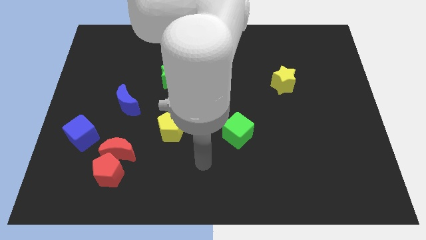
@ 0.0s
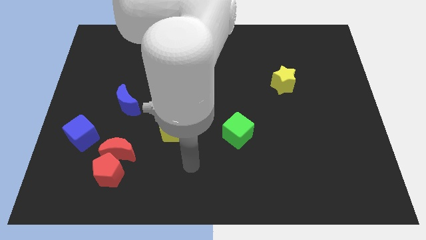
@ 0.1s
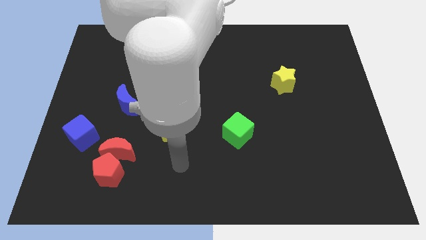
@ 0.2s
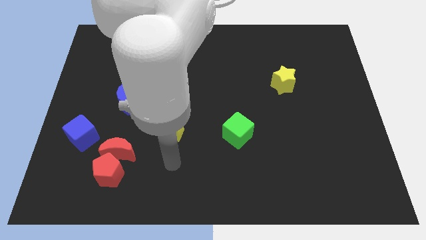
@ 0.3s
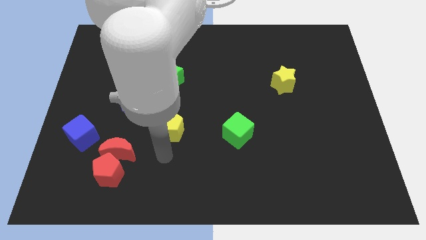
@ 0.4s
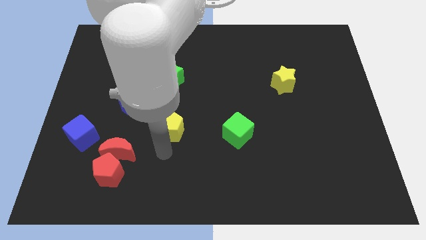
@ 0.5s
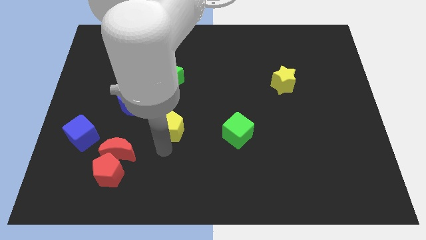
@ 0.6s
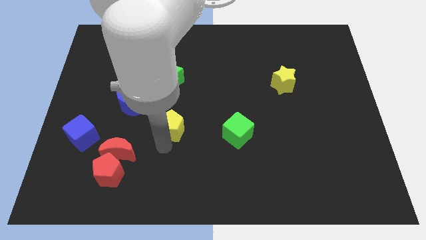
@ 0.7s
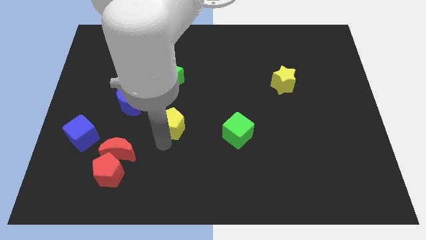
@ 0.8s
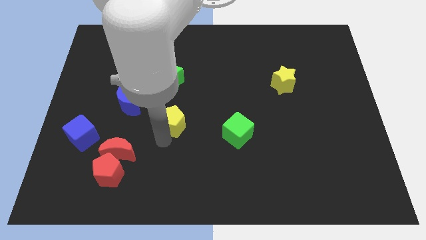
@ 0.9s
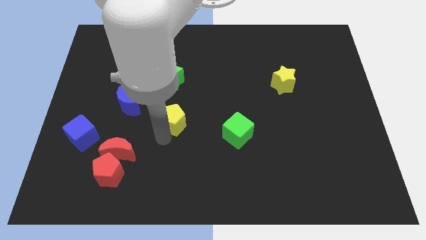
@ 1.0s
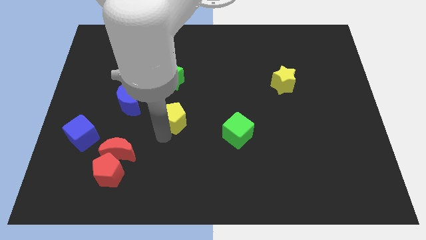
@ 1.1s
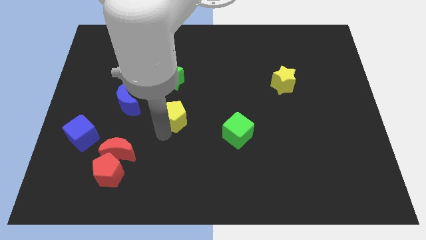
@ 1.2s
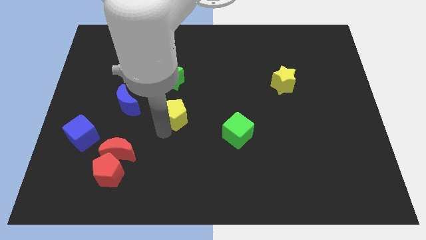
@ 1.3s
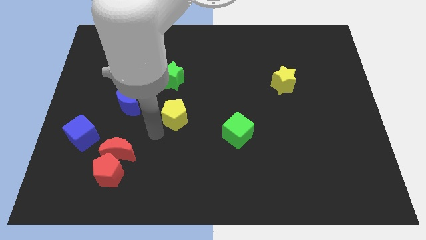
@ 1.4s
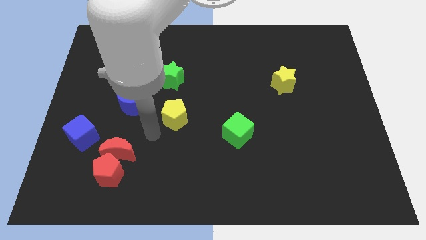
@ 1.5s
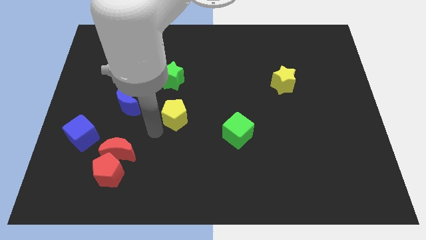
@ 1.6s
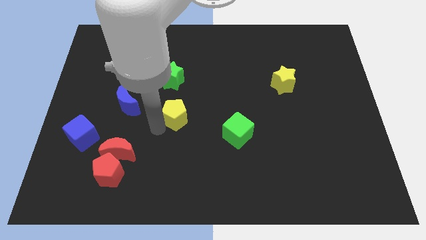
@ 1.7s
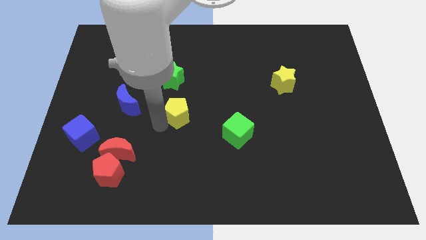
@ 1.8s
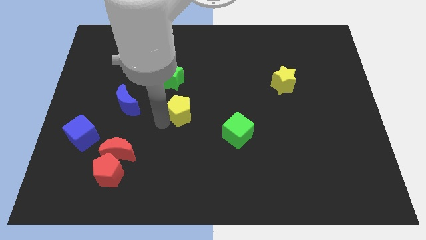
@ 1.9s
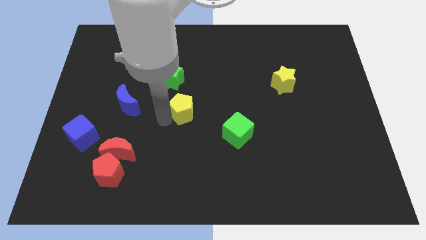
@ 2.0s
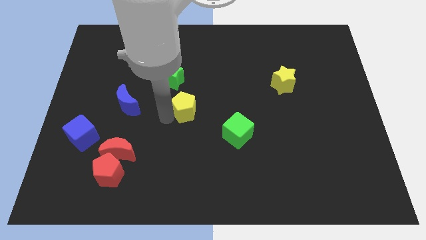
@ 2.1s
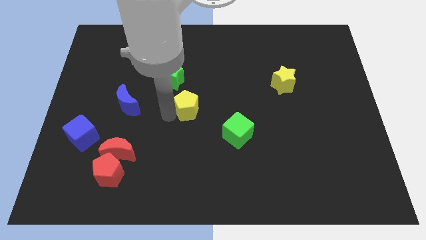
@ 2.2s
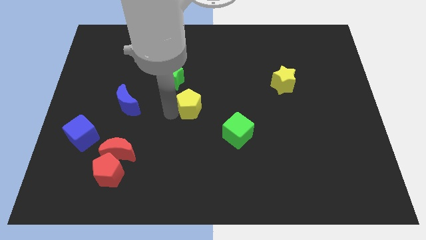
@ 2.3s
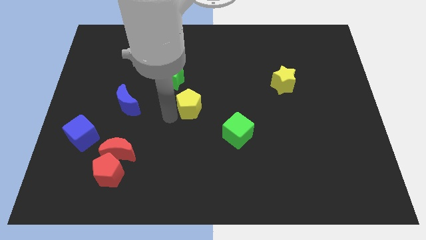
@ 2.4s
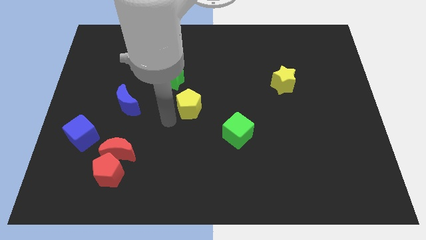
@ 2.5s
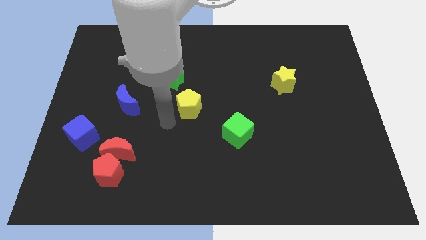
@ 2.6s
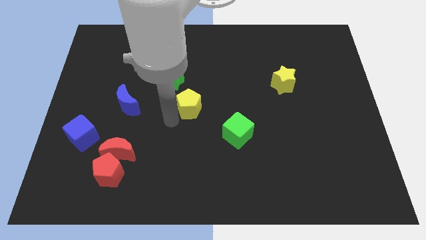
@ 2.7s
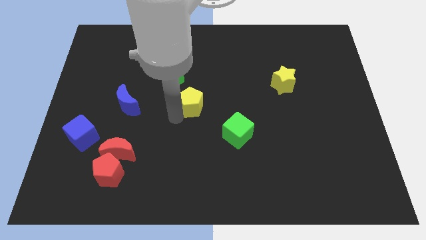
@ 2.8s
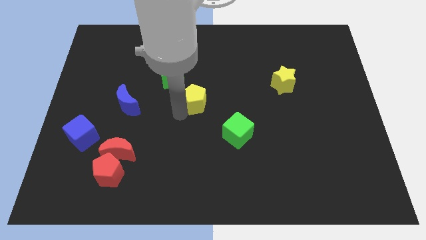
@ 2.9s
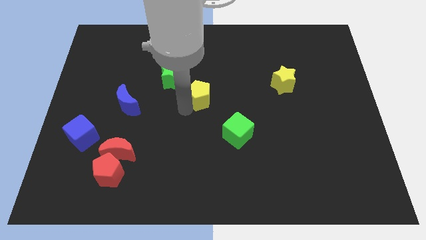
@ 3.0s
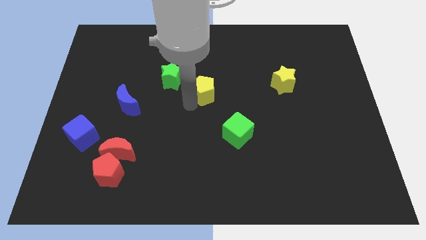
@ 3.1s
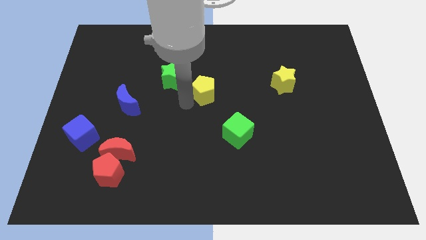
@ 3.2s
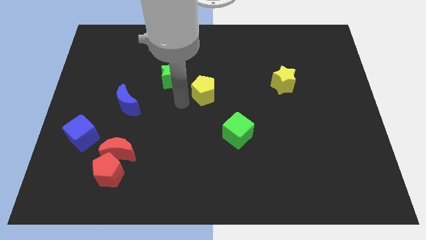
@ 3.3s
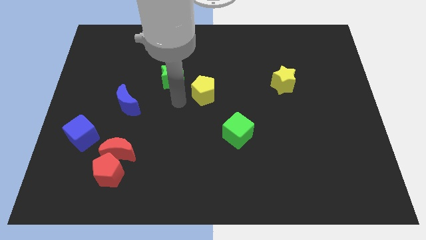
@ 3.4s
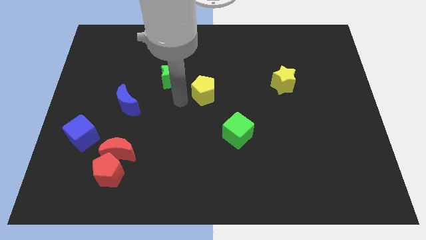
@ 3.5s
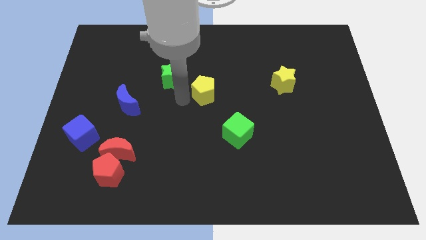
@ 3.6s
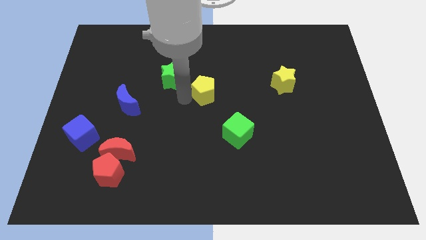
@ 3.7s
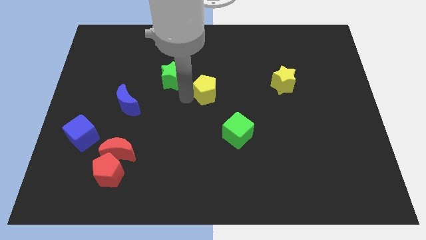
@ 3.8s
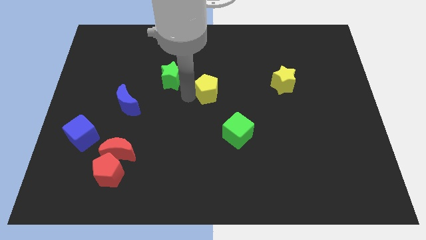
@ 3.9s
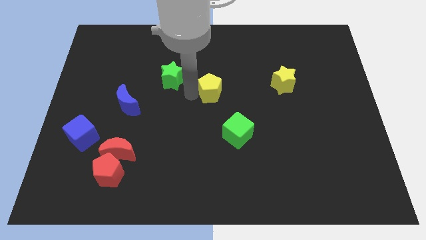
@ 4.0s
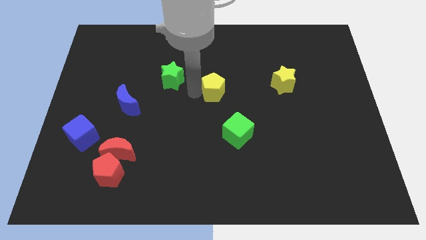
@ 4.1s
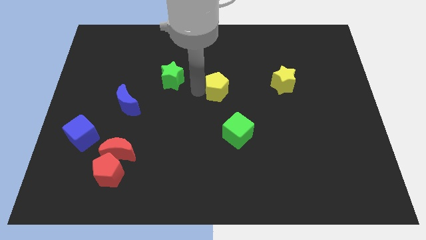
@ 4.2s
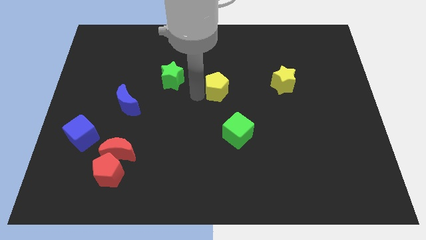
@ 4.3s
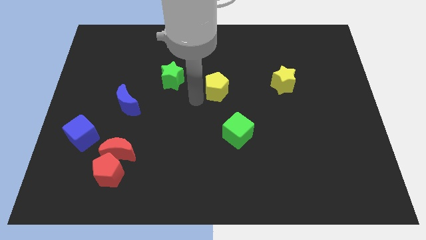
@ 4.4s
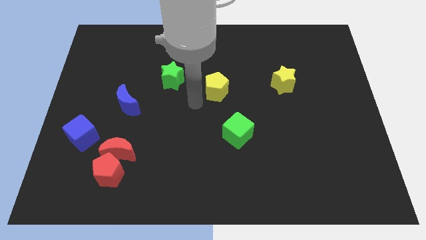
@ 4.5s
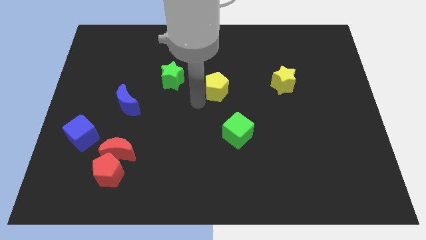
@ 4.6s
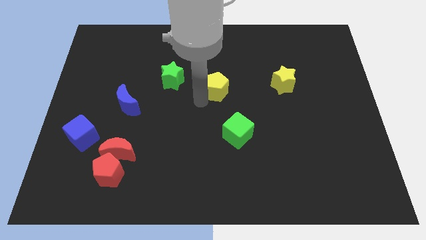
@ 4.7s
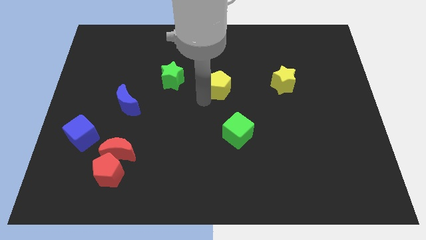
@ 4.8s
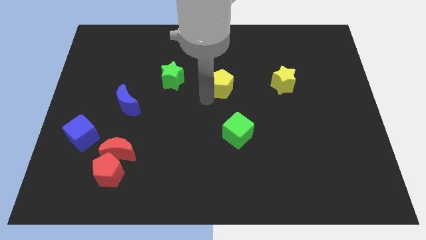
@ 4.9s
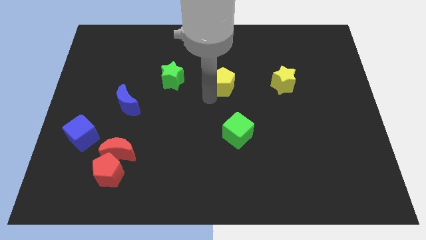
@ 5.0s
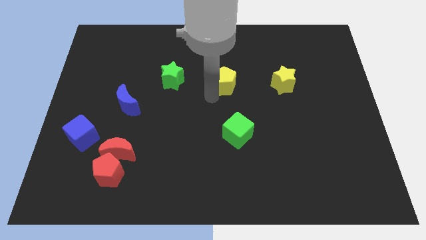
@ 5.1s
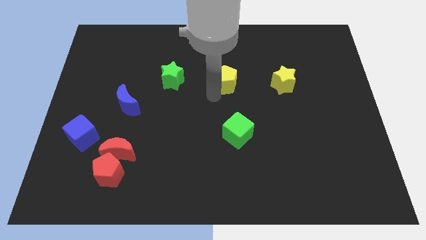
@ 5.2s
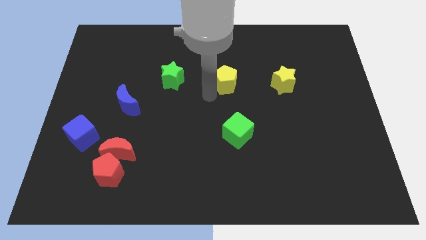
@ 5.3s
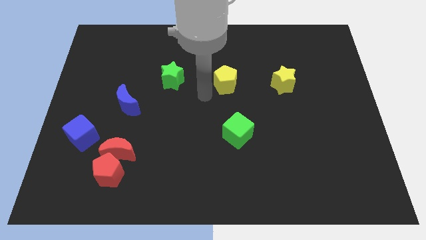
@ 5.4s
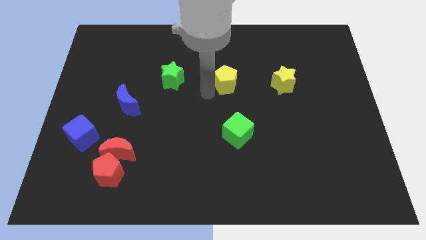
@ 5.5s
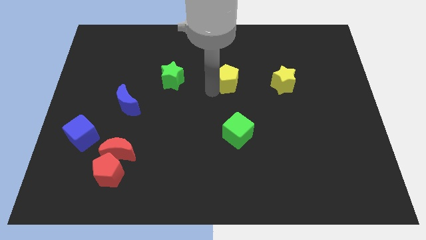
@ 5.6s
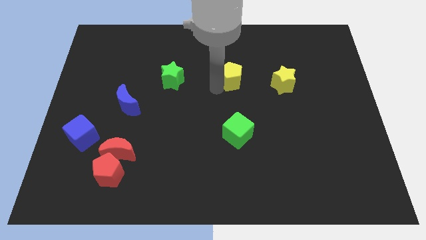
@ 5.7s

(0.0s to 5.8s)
slide the yellow pentagon upwards and right

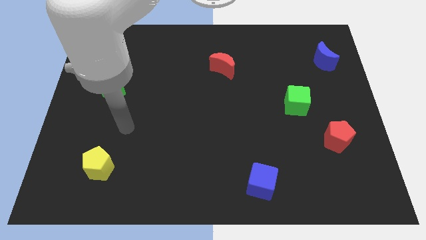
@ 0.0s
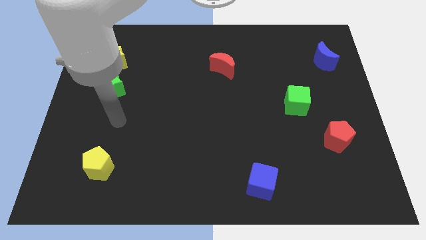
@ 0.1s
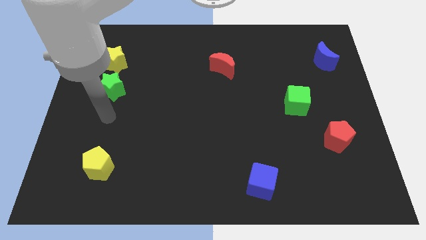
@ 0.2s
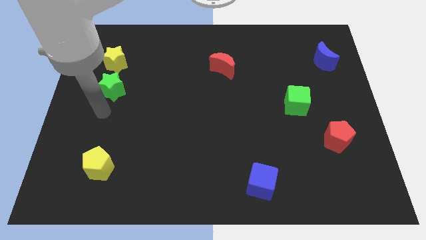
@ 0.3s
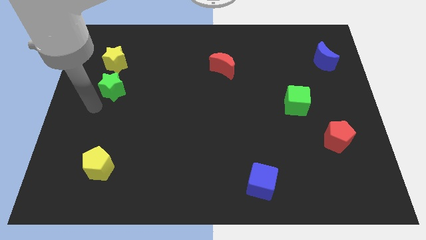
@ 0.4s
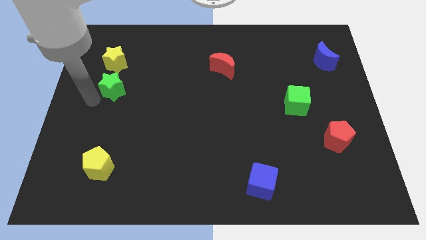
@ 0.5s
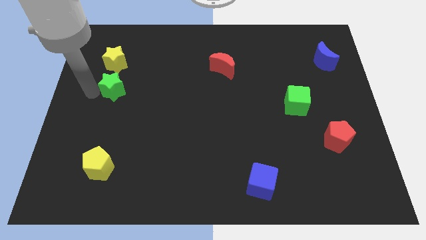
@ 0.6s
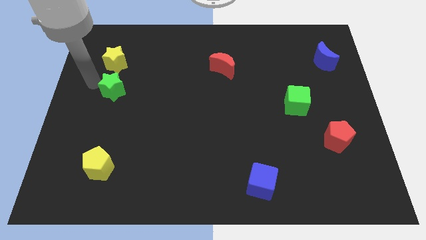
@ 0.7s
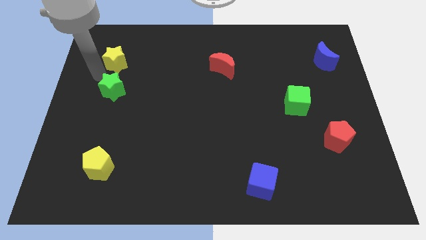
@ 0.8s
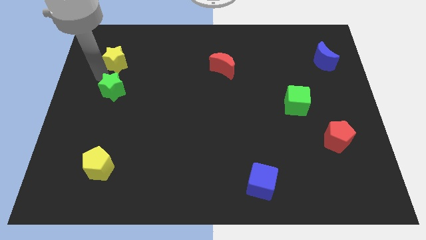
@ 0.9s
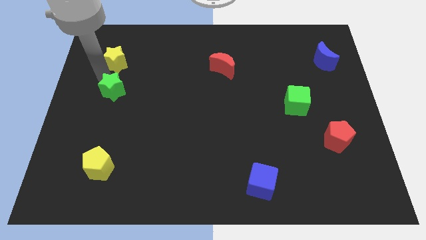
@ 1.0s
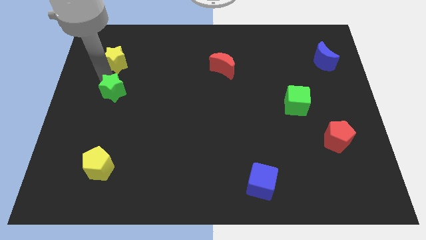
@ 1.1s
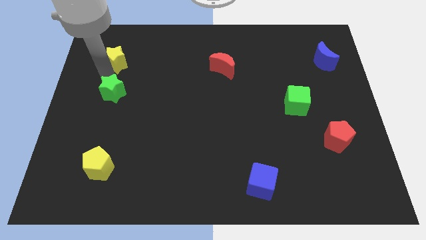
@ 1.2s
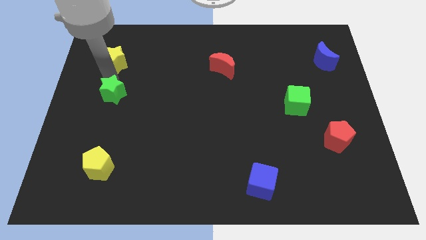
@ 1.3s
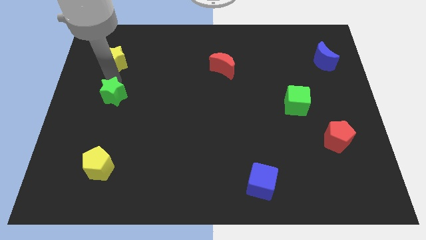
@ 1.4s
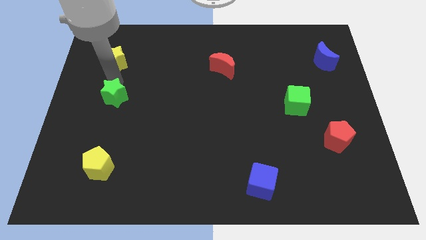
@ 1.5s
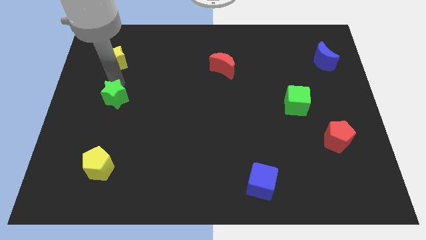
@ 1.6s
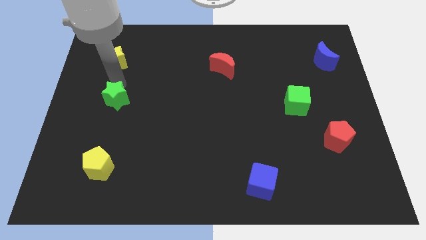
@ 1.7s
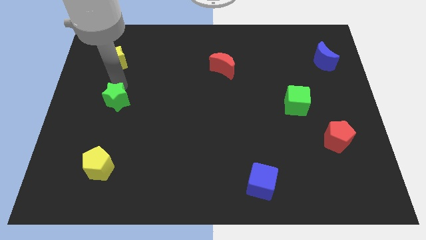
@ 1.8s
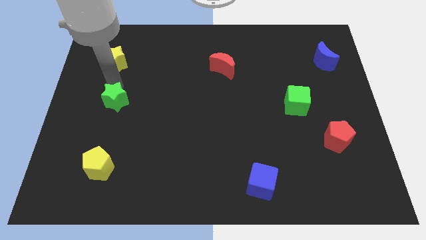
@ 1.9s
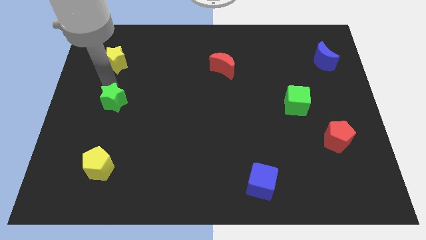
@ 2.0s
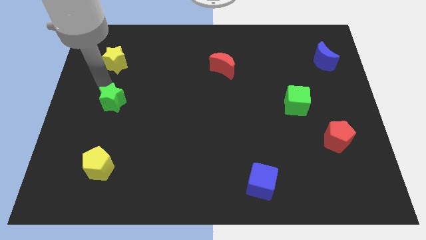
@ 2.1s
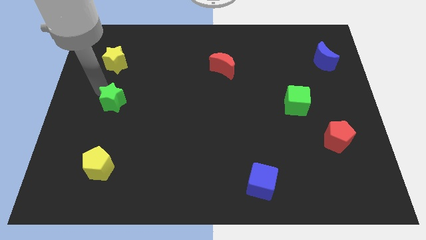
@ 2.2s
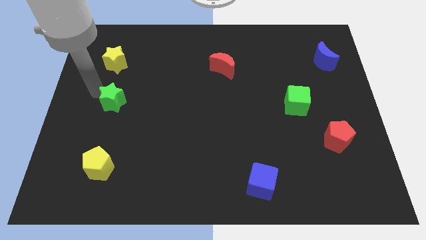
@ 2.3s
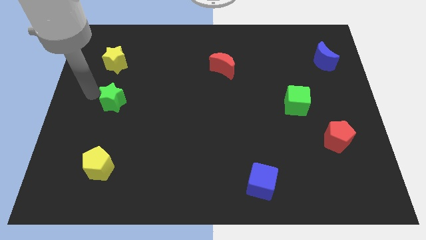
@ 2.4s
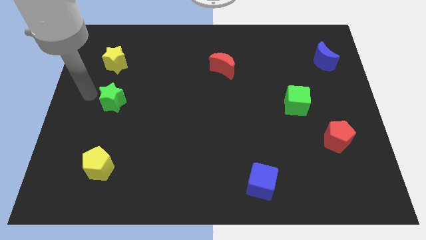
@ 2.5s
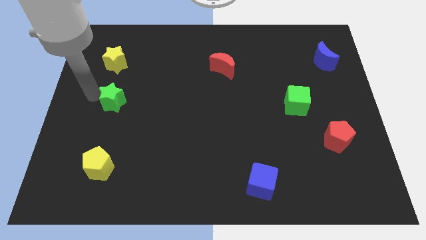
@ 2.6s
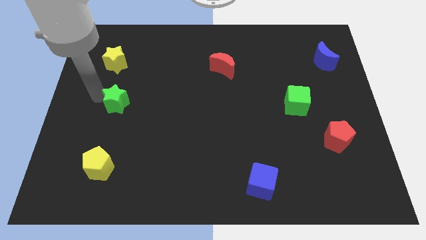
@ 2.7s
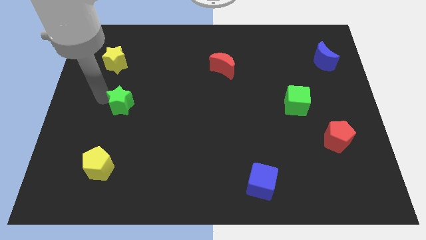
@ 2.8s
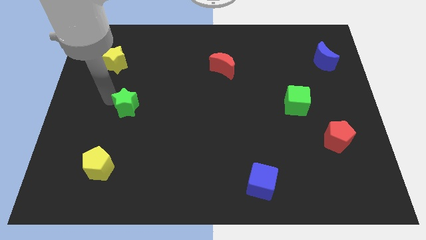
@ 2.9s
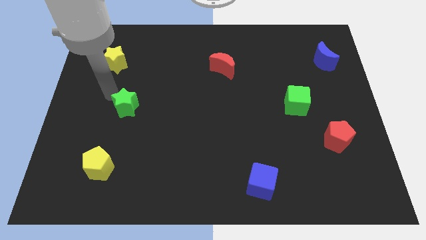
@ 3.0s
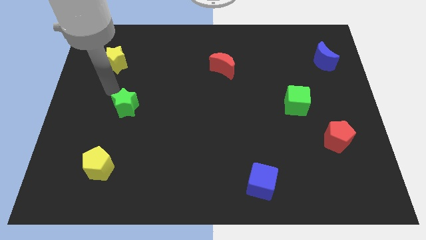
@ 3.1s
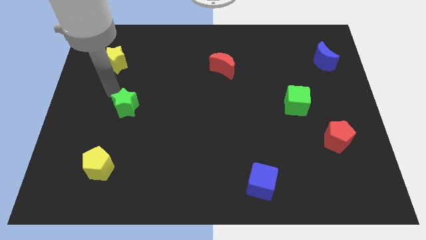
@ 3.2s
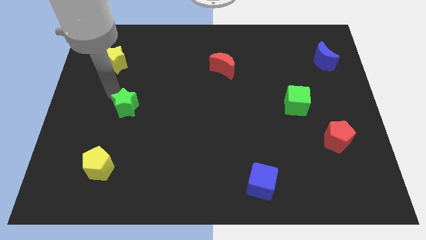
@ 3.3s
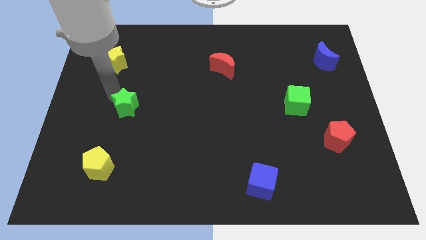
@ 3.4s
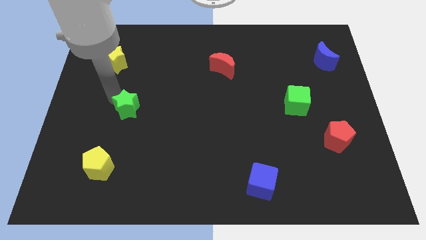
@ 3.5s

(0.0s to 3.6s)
move the green star down and then to the right a little
